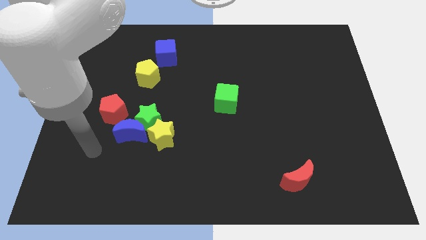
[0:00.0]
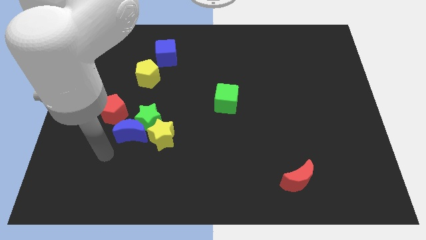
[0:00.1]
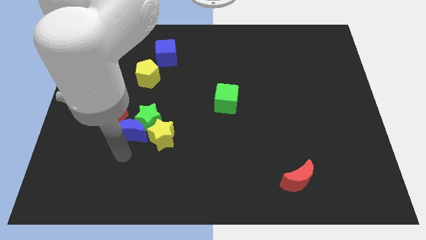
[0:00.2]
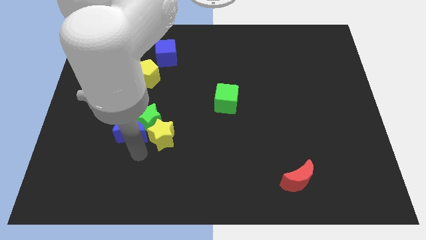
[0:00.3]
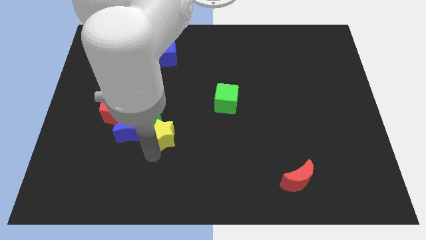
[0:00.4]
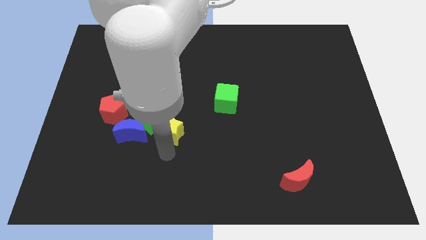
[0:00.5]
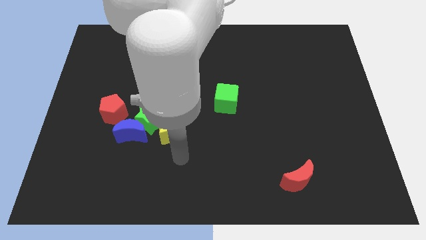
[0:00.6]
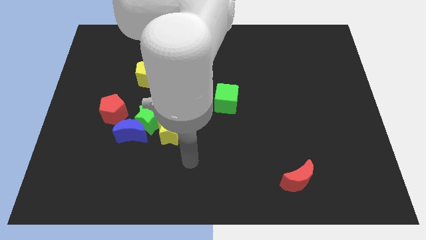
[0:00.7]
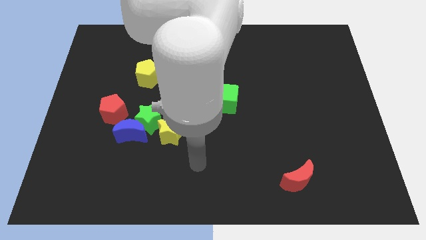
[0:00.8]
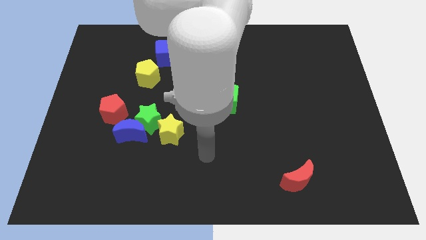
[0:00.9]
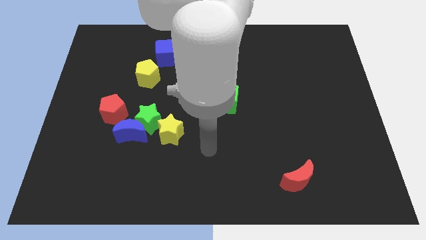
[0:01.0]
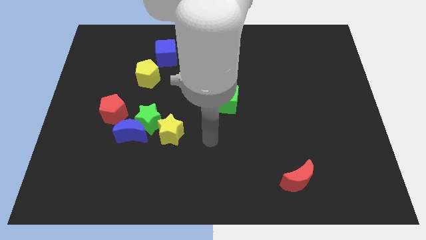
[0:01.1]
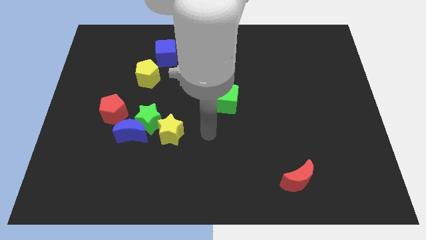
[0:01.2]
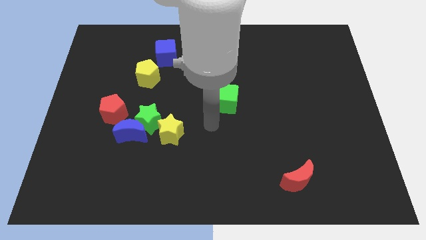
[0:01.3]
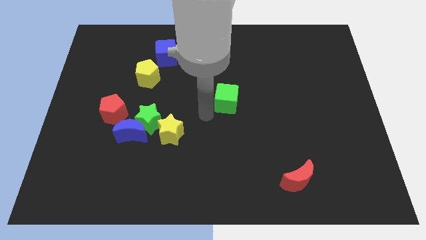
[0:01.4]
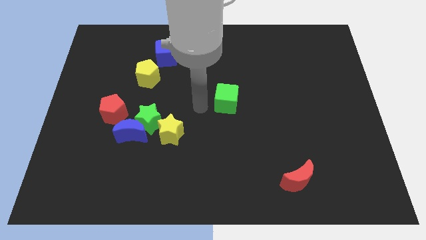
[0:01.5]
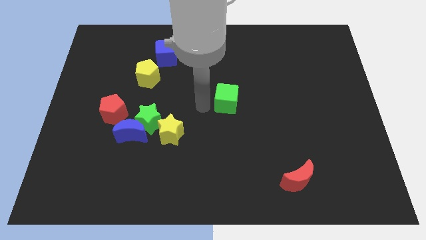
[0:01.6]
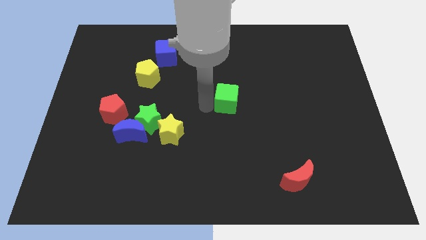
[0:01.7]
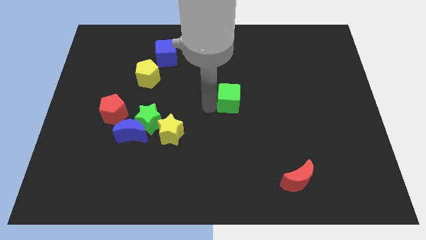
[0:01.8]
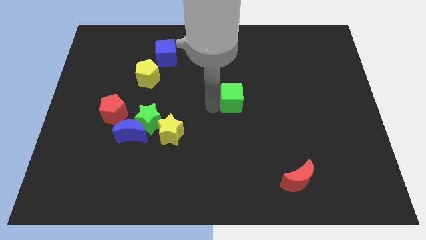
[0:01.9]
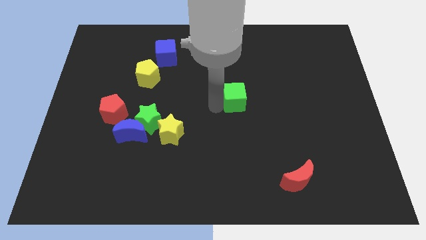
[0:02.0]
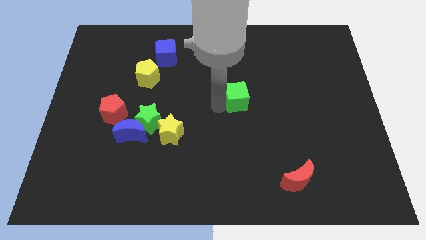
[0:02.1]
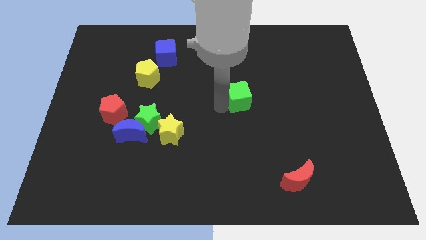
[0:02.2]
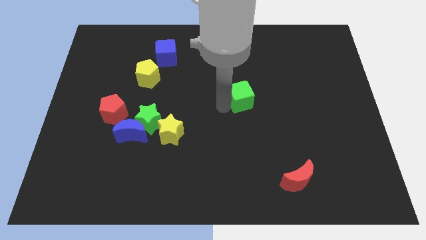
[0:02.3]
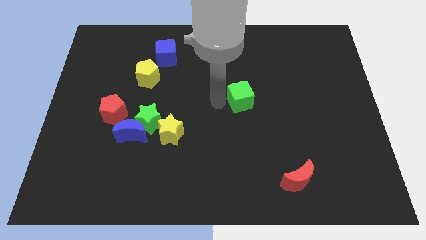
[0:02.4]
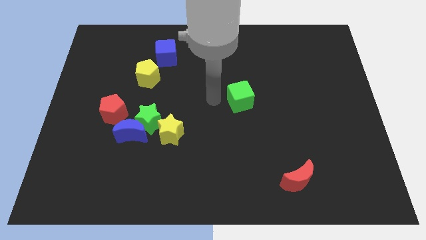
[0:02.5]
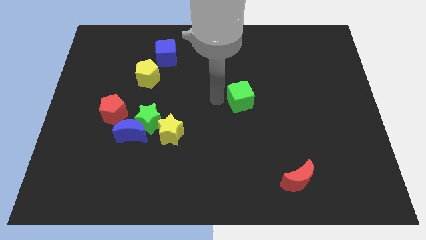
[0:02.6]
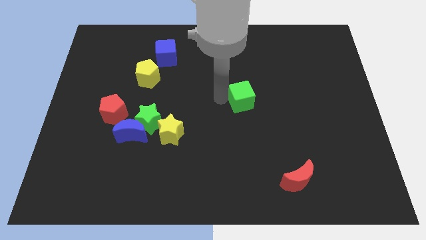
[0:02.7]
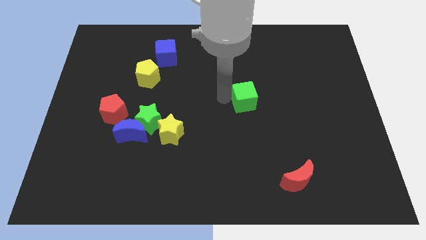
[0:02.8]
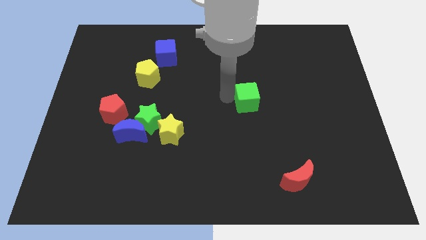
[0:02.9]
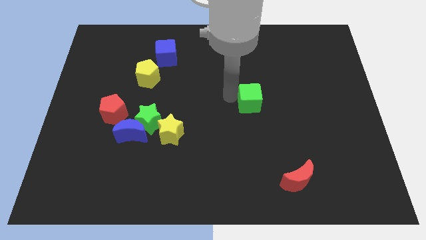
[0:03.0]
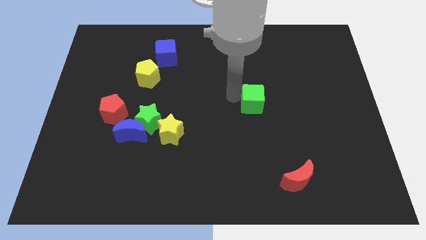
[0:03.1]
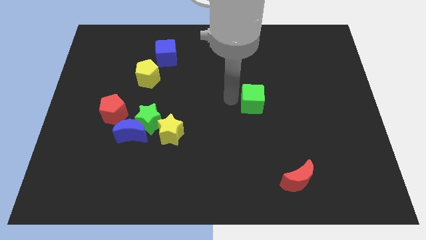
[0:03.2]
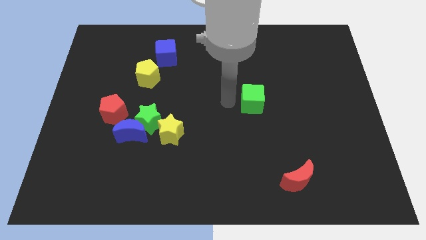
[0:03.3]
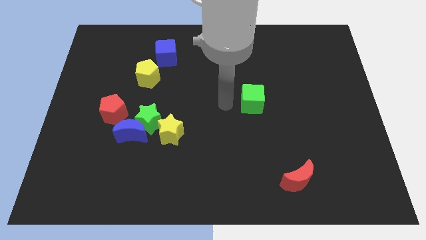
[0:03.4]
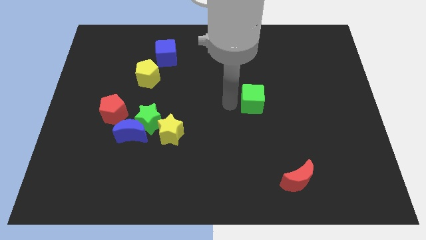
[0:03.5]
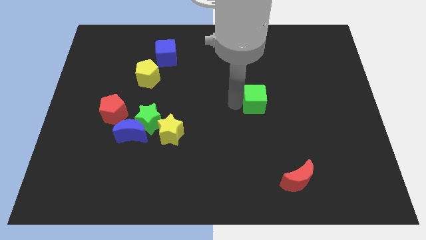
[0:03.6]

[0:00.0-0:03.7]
slide the green cube right a bit

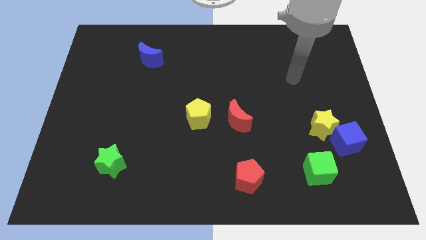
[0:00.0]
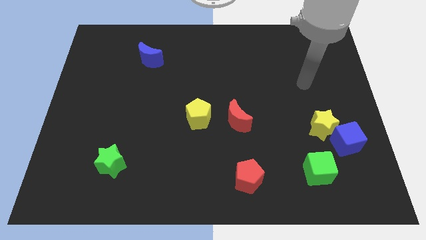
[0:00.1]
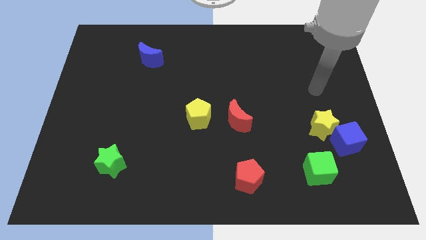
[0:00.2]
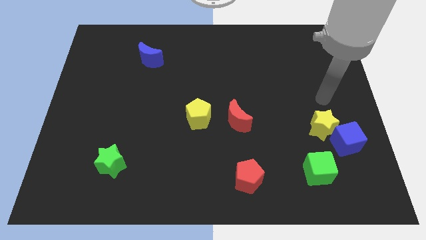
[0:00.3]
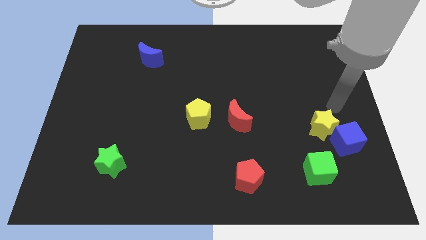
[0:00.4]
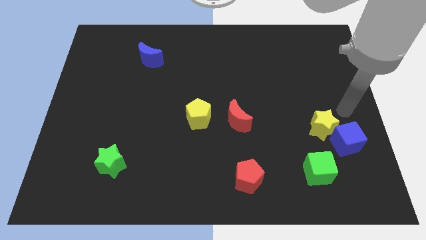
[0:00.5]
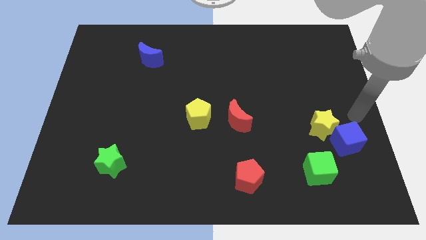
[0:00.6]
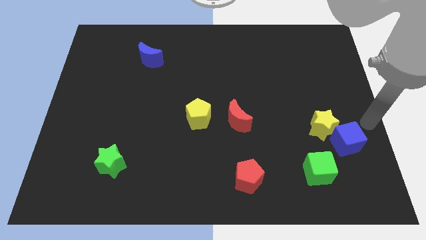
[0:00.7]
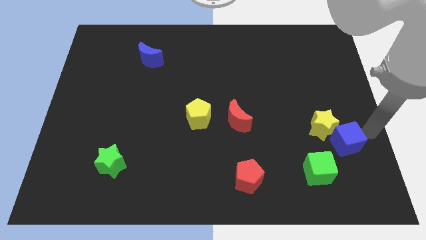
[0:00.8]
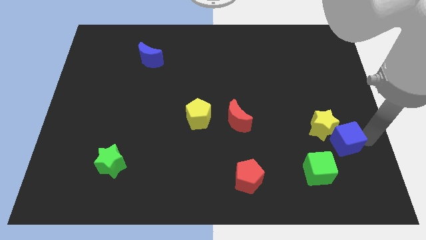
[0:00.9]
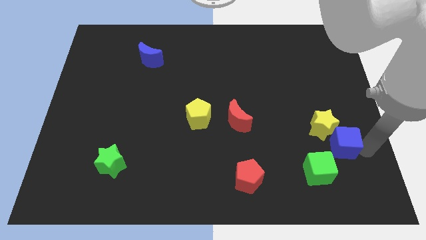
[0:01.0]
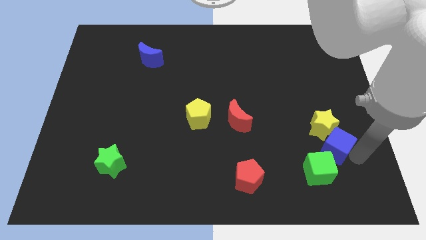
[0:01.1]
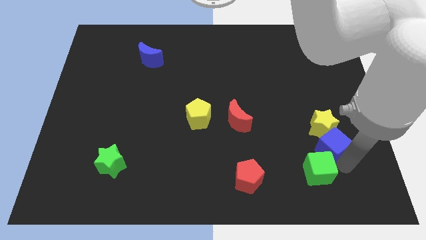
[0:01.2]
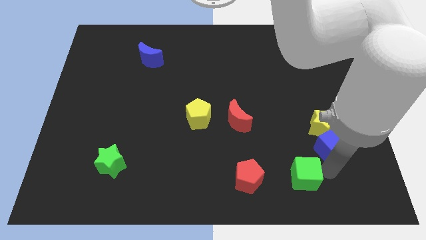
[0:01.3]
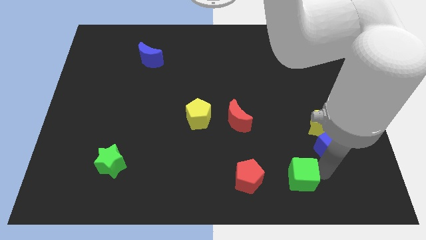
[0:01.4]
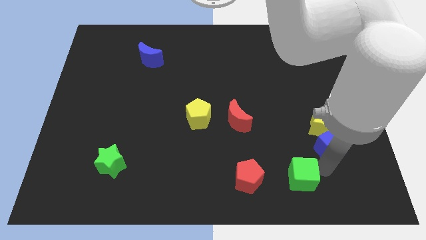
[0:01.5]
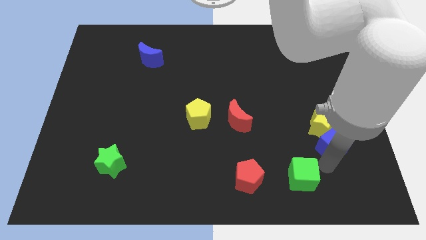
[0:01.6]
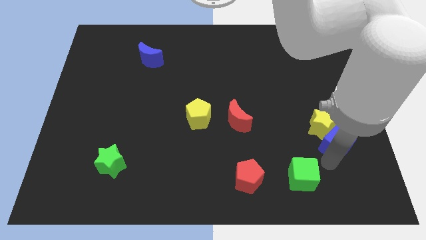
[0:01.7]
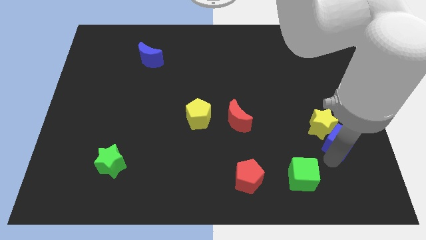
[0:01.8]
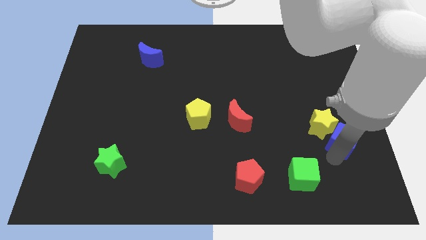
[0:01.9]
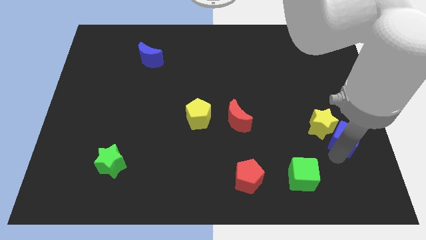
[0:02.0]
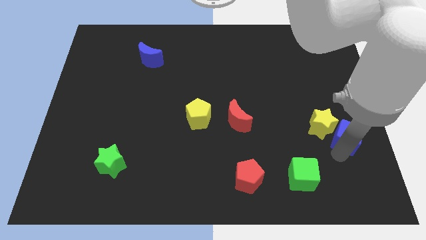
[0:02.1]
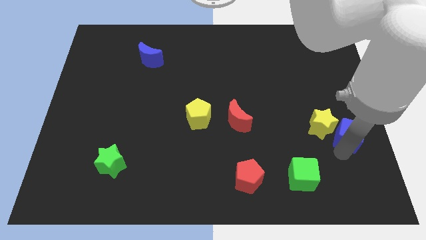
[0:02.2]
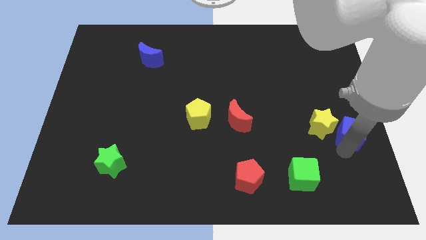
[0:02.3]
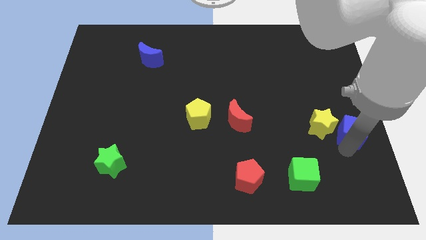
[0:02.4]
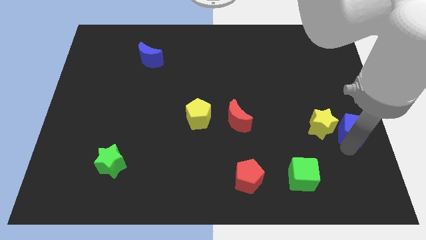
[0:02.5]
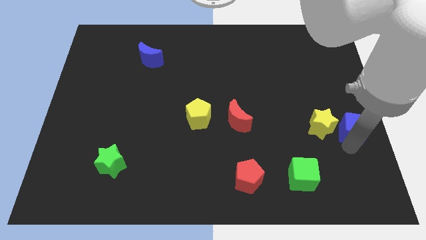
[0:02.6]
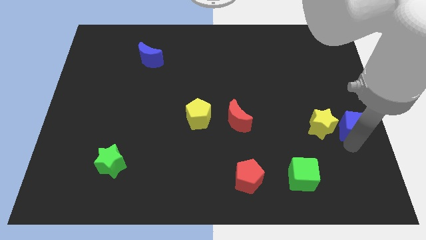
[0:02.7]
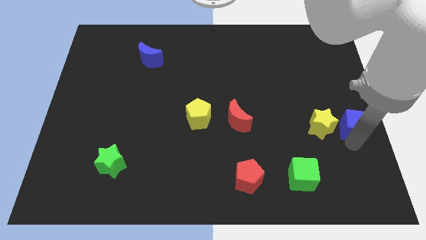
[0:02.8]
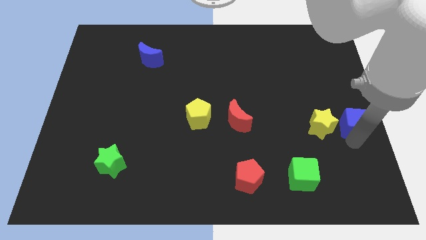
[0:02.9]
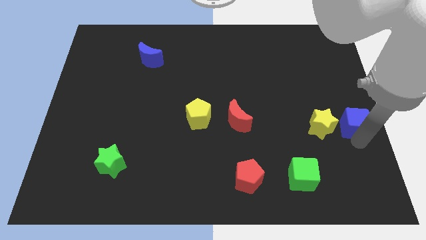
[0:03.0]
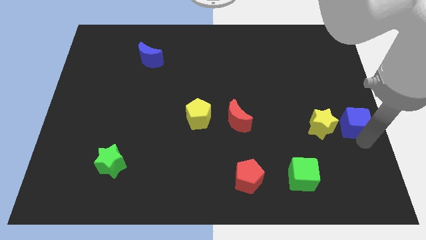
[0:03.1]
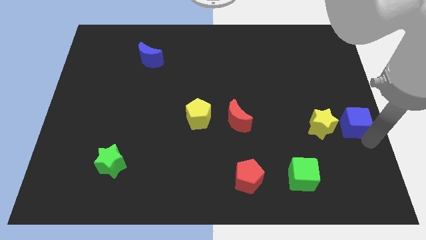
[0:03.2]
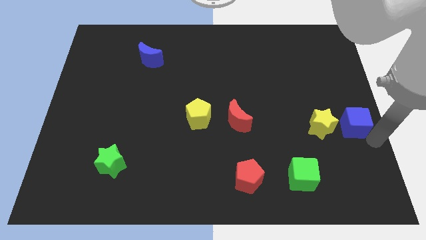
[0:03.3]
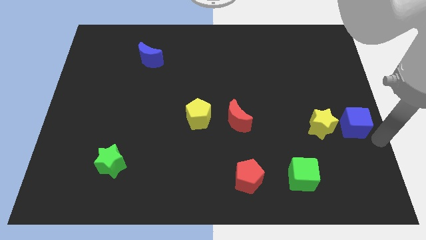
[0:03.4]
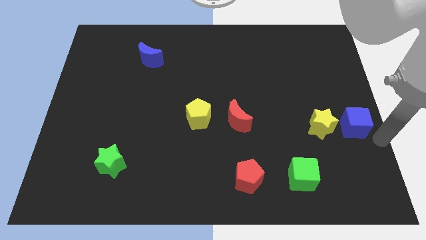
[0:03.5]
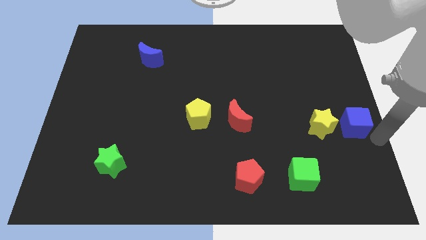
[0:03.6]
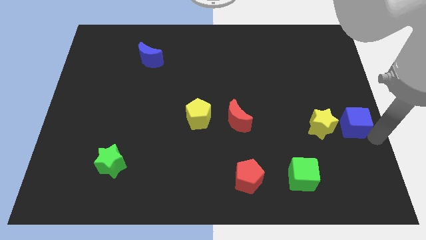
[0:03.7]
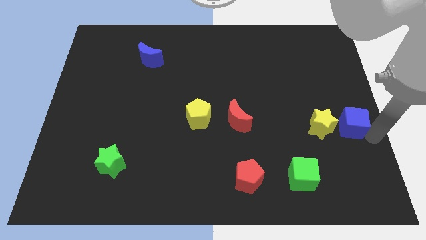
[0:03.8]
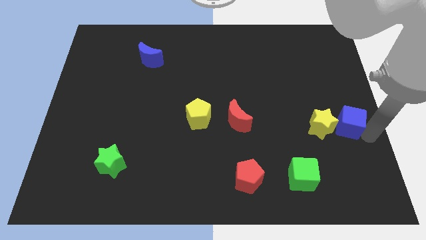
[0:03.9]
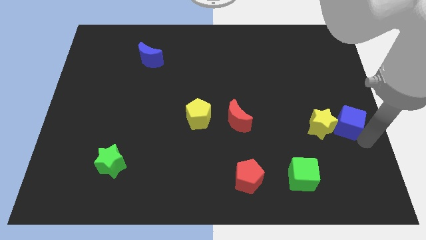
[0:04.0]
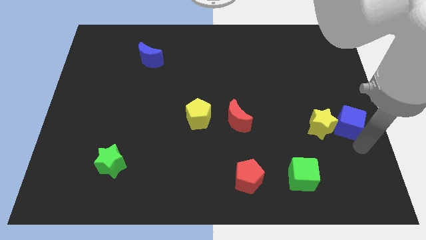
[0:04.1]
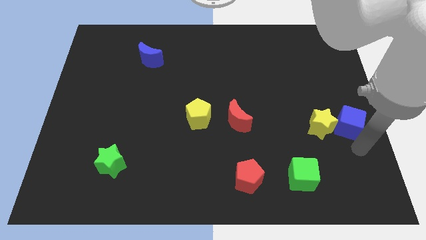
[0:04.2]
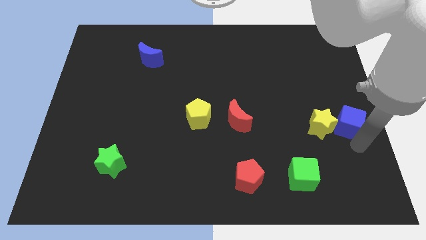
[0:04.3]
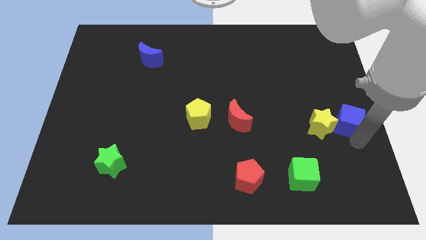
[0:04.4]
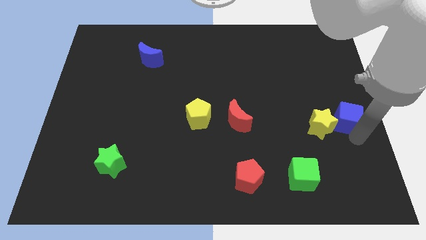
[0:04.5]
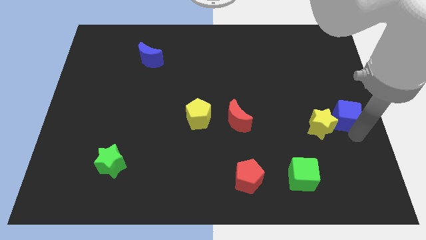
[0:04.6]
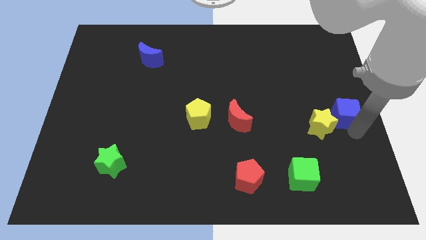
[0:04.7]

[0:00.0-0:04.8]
slide the blue cube a little bit upwards
